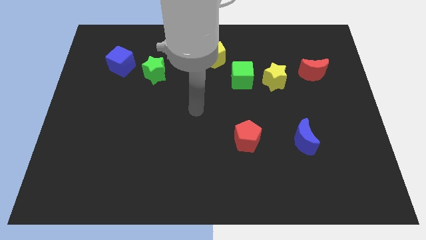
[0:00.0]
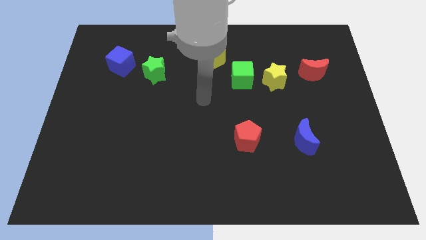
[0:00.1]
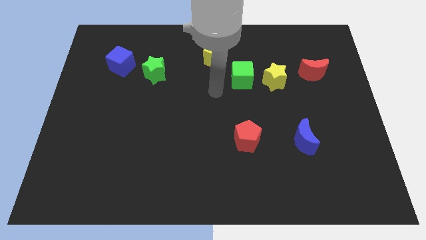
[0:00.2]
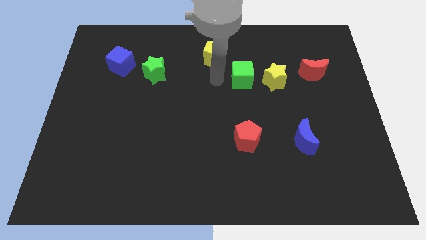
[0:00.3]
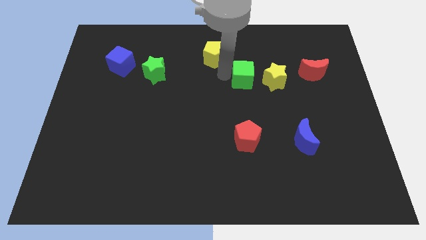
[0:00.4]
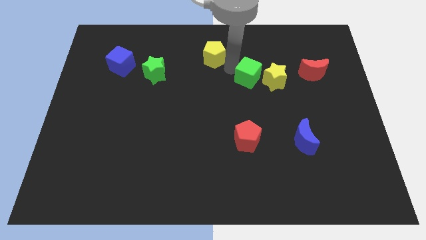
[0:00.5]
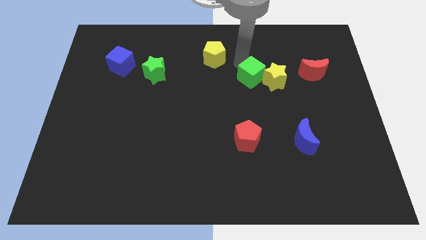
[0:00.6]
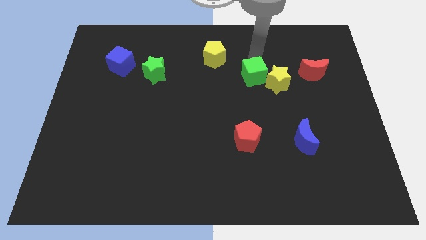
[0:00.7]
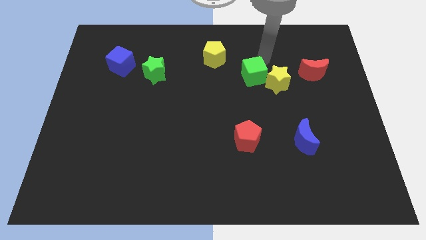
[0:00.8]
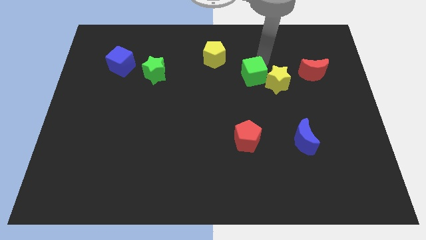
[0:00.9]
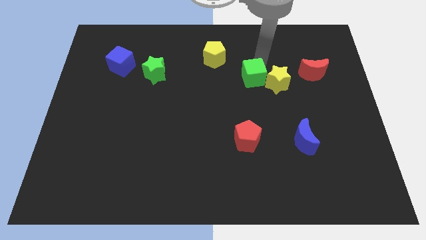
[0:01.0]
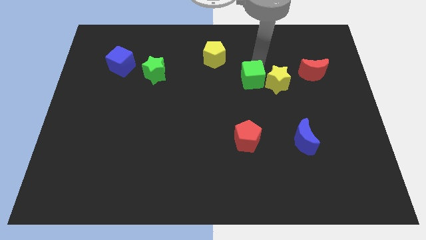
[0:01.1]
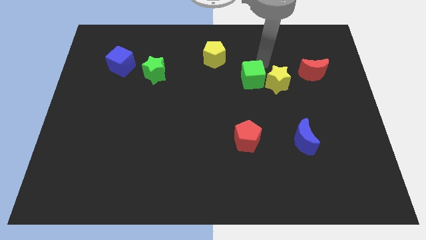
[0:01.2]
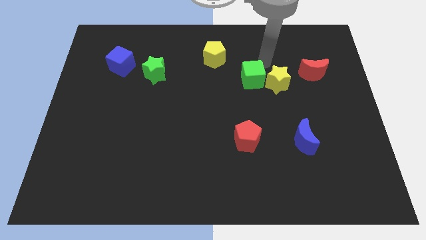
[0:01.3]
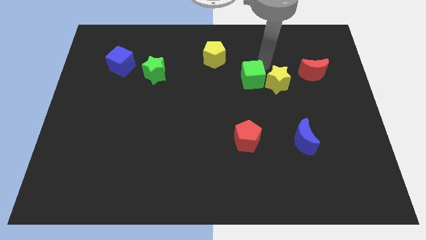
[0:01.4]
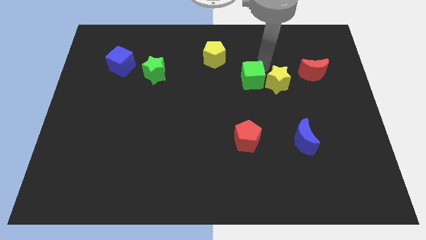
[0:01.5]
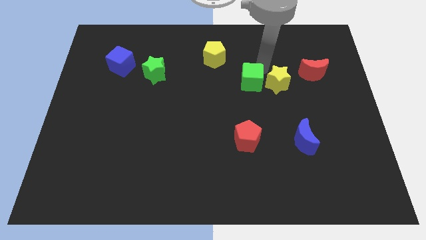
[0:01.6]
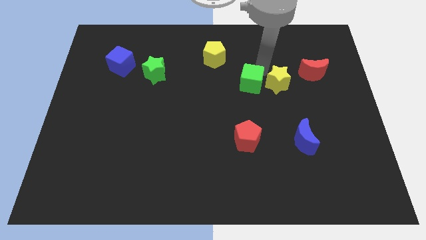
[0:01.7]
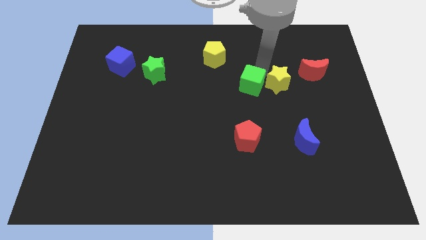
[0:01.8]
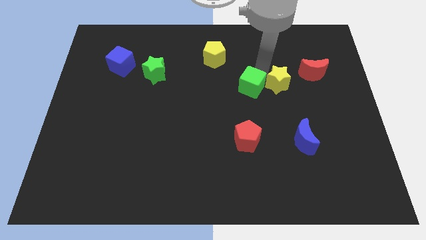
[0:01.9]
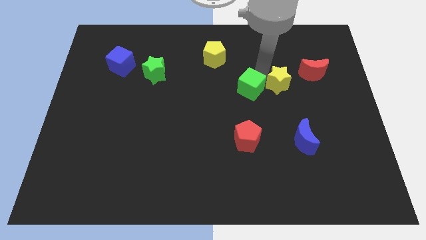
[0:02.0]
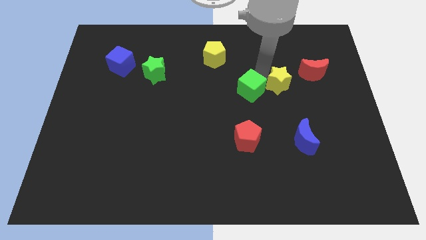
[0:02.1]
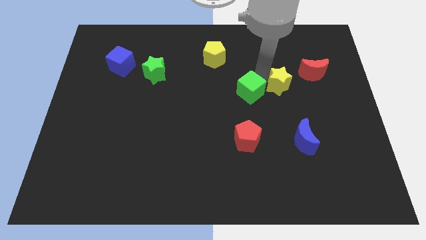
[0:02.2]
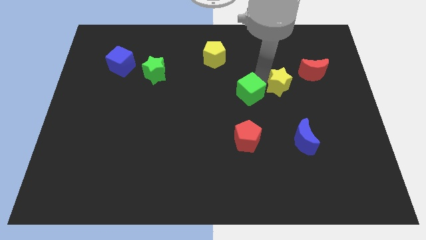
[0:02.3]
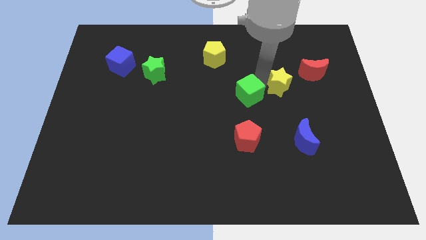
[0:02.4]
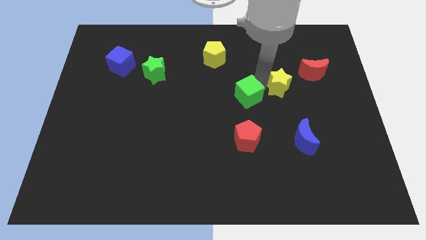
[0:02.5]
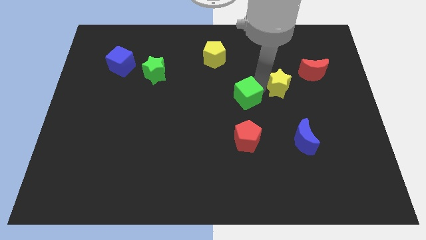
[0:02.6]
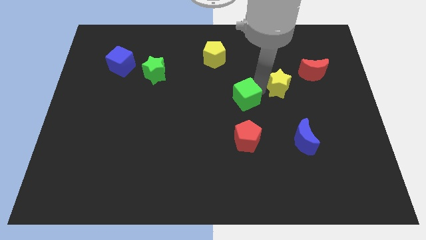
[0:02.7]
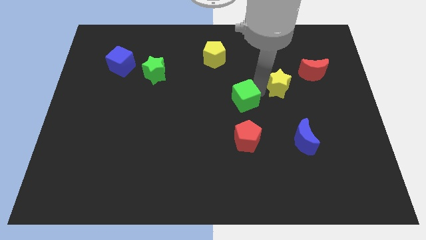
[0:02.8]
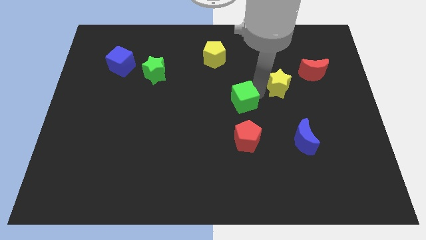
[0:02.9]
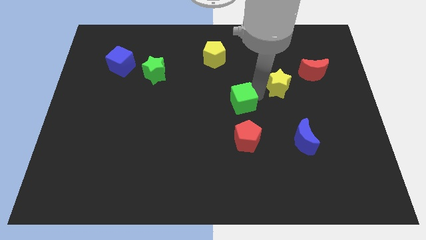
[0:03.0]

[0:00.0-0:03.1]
separate the green cube from the yellow star and yellow pentagon

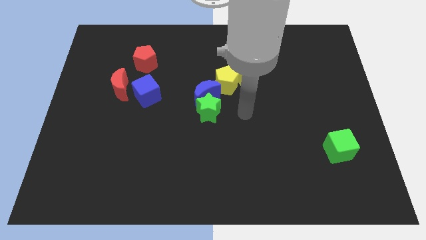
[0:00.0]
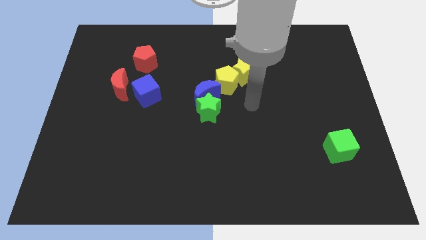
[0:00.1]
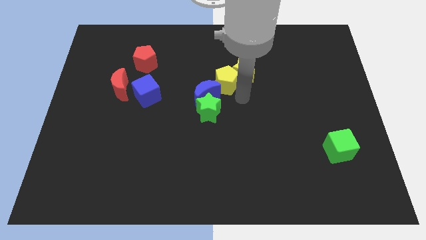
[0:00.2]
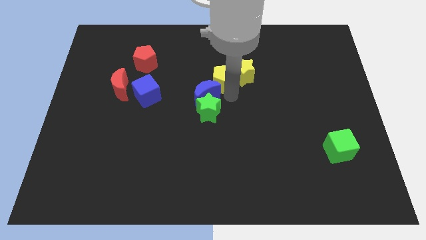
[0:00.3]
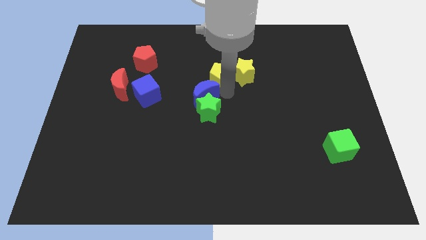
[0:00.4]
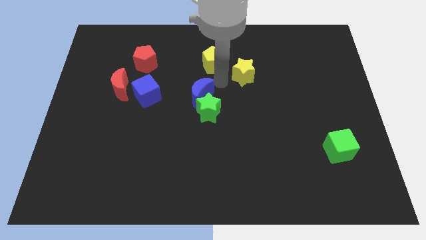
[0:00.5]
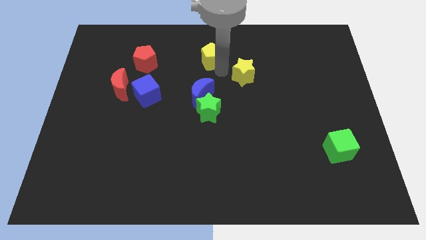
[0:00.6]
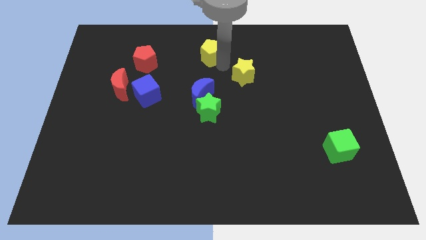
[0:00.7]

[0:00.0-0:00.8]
pull the yellow star apart from the yellow pentagon

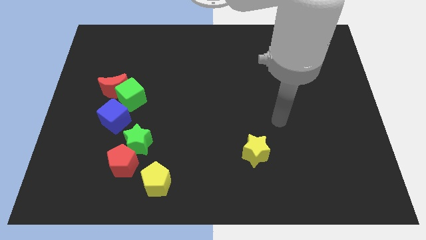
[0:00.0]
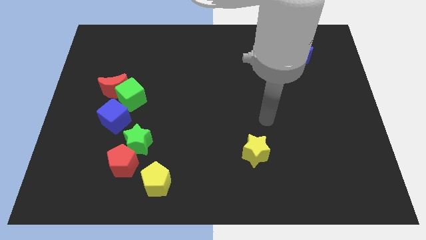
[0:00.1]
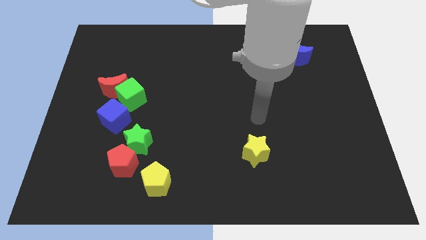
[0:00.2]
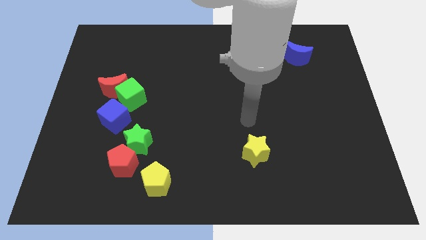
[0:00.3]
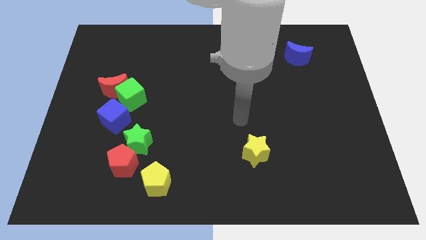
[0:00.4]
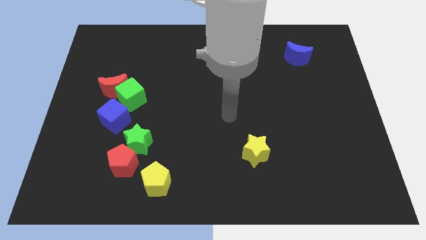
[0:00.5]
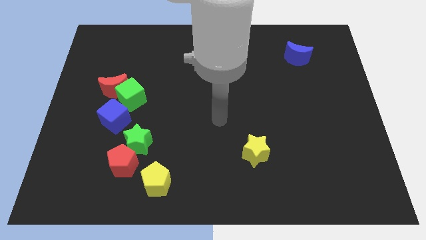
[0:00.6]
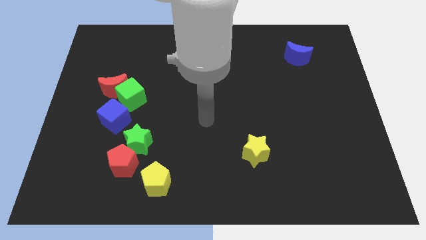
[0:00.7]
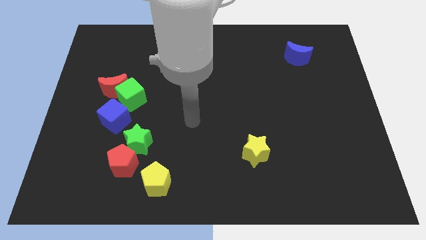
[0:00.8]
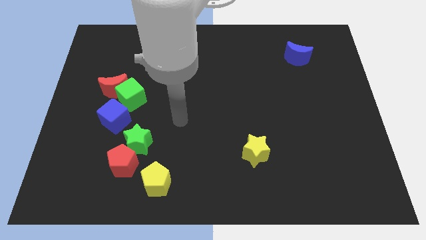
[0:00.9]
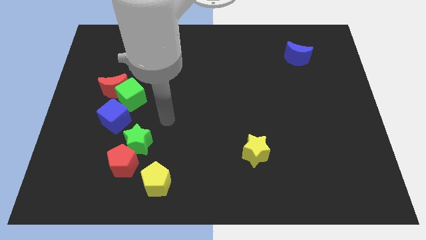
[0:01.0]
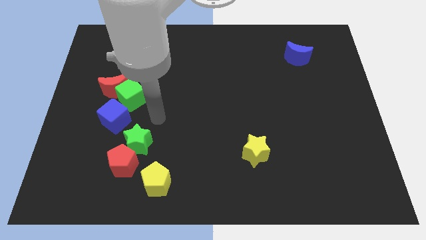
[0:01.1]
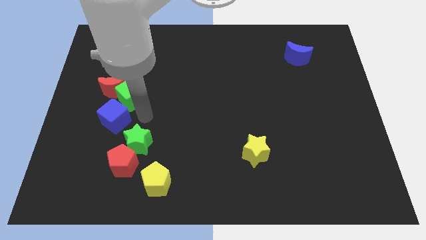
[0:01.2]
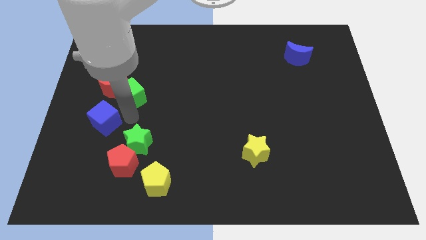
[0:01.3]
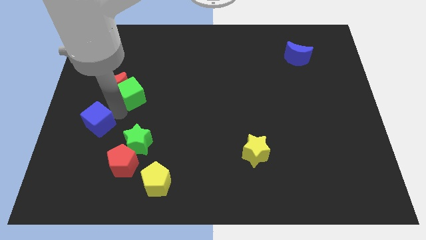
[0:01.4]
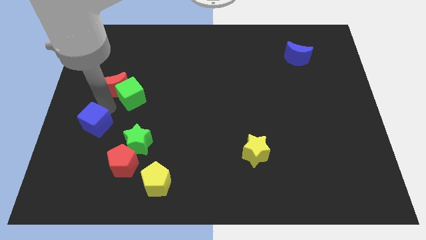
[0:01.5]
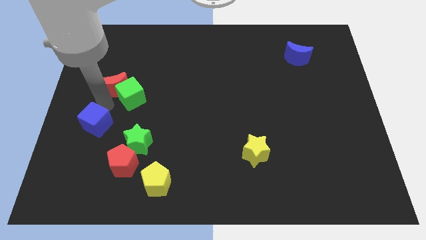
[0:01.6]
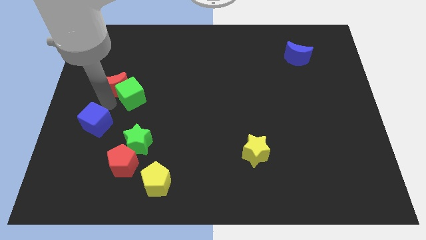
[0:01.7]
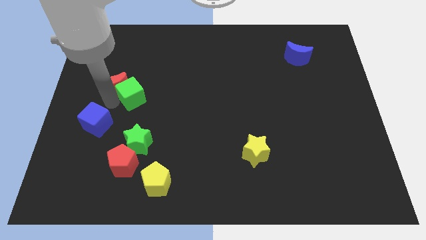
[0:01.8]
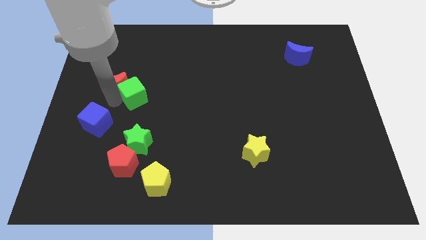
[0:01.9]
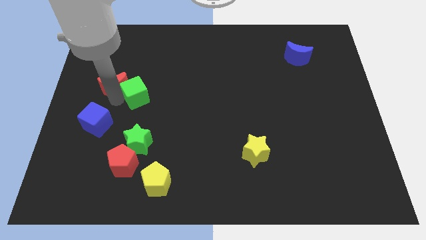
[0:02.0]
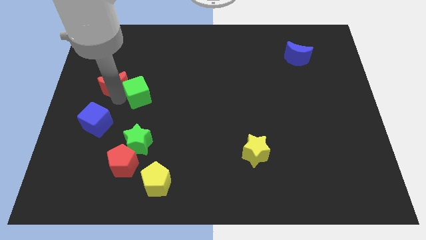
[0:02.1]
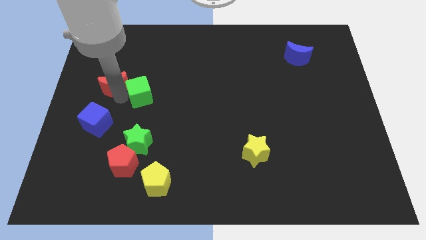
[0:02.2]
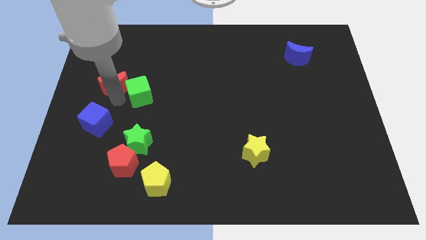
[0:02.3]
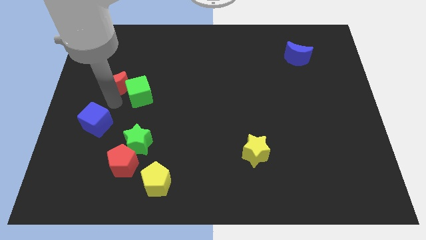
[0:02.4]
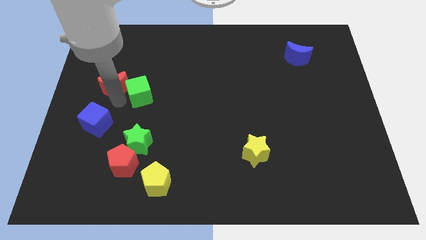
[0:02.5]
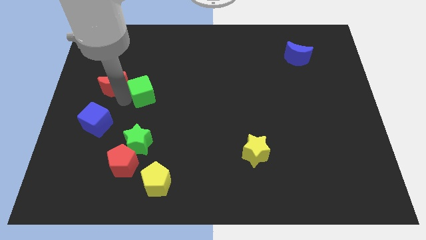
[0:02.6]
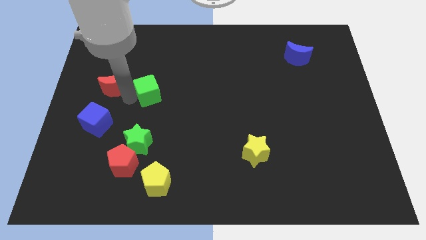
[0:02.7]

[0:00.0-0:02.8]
separate the green cube from the red moon and blue cube

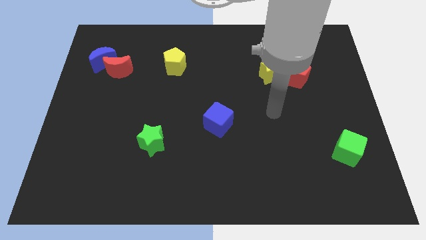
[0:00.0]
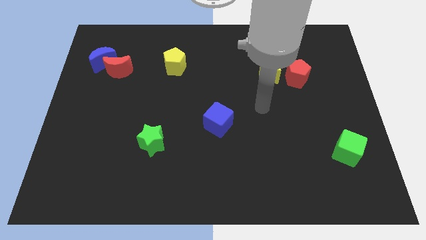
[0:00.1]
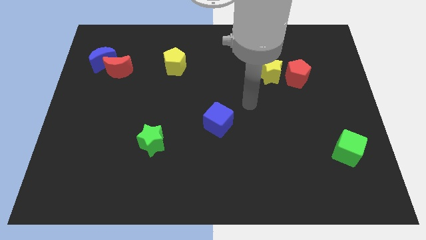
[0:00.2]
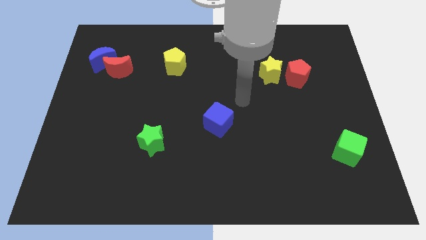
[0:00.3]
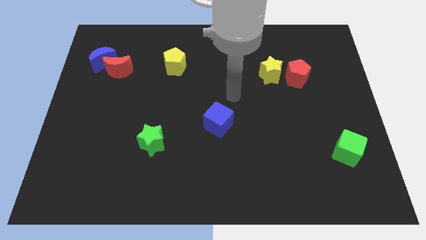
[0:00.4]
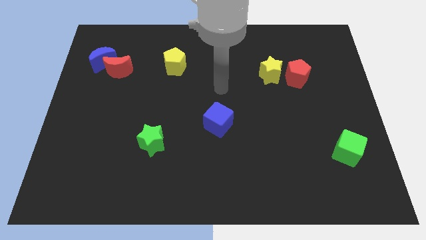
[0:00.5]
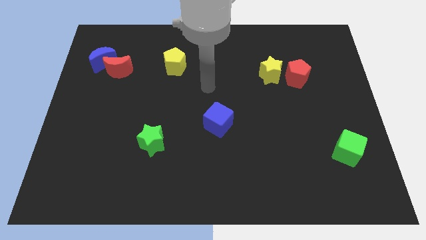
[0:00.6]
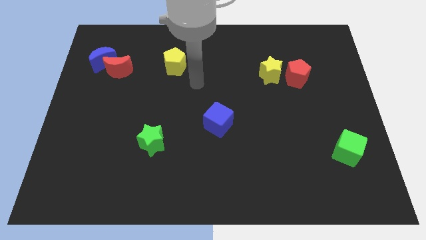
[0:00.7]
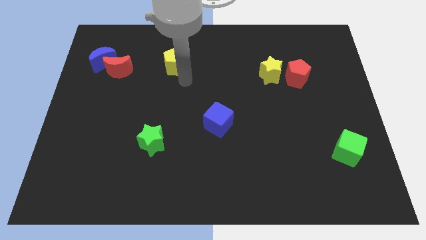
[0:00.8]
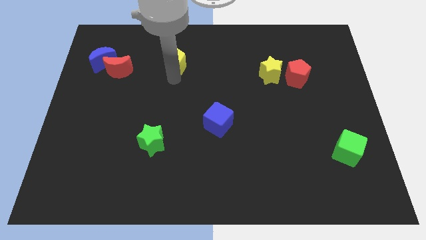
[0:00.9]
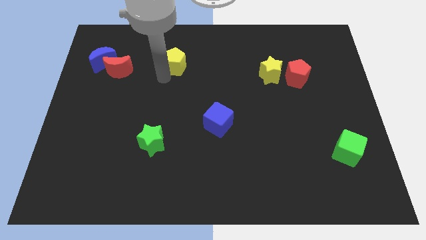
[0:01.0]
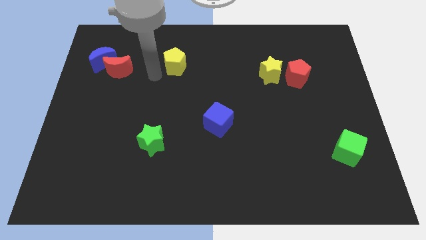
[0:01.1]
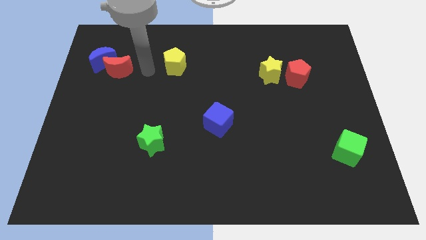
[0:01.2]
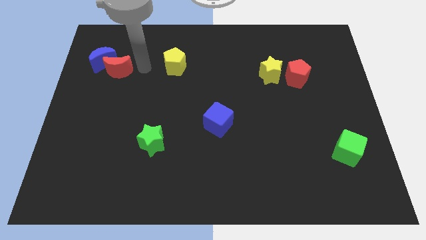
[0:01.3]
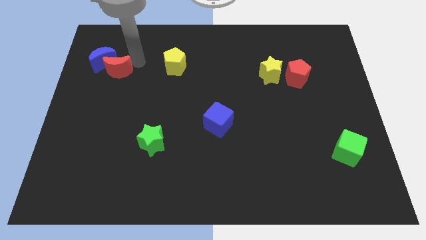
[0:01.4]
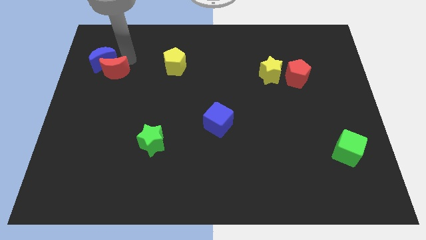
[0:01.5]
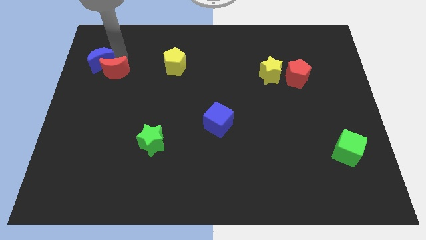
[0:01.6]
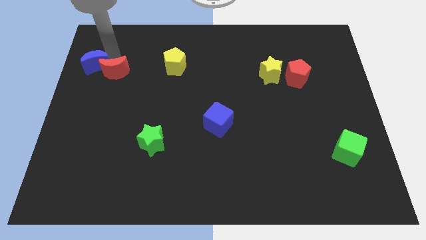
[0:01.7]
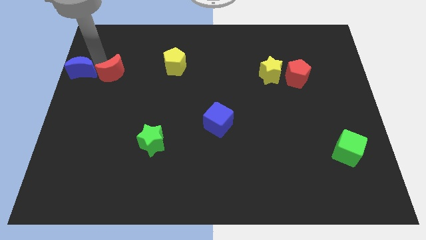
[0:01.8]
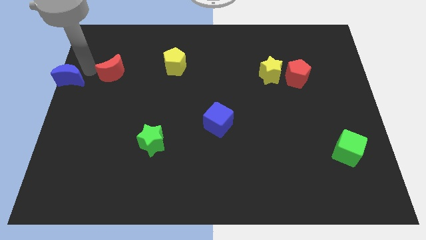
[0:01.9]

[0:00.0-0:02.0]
move the red moon away from the blue moon

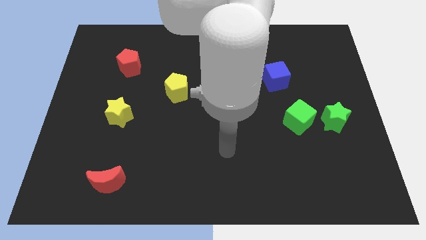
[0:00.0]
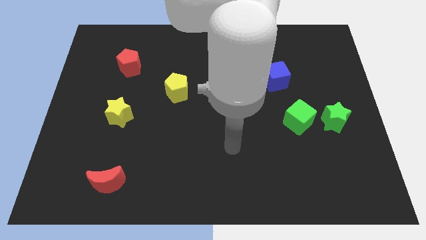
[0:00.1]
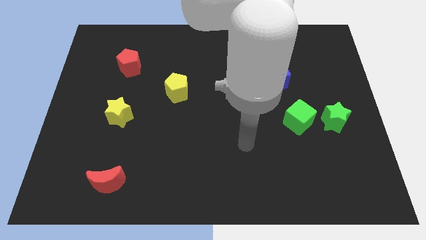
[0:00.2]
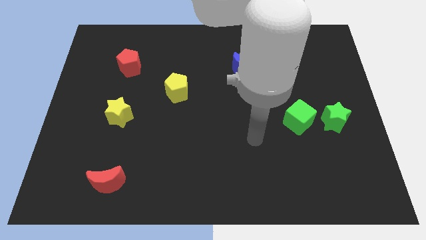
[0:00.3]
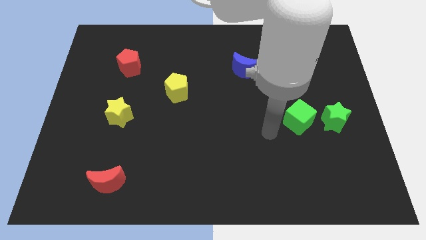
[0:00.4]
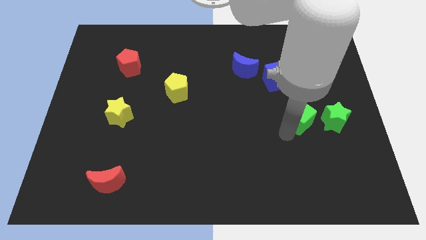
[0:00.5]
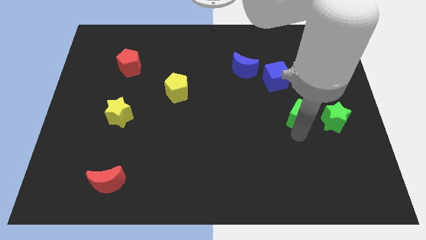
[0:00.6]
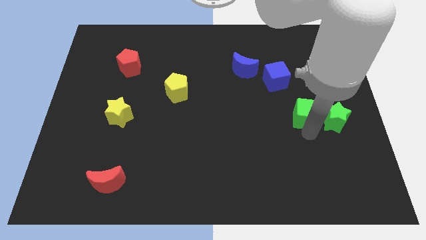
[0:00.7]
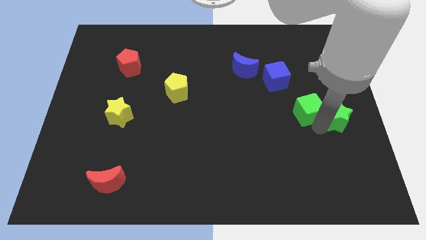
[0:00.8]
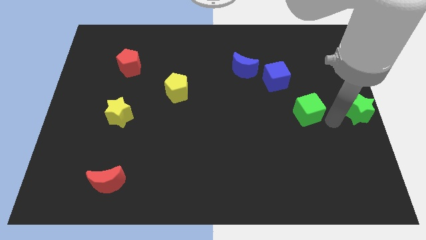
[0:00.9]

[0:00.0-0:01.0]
pull the green cube apart from the green star
